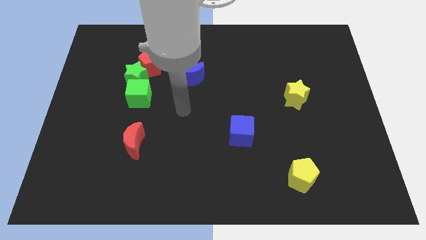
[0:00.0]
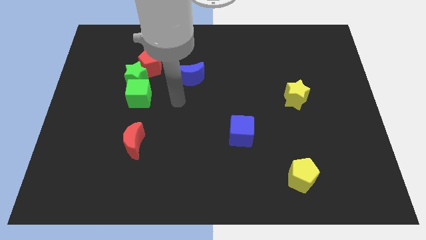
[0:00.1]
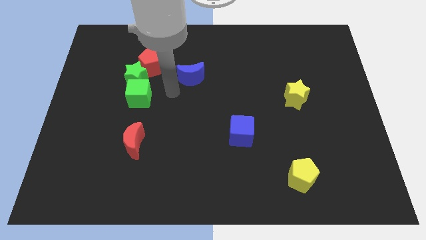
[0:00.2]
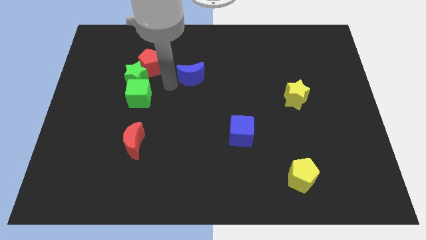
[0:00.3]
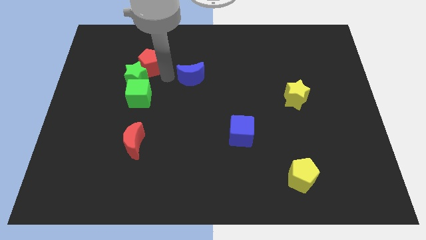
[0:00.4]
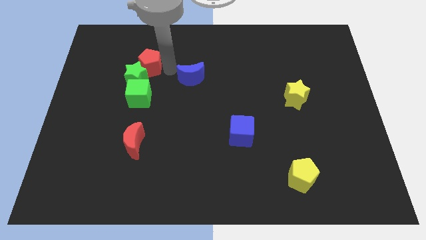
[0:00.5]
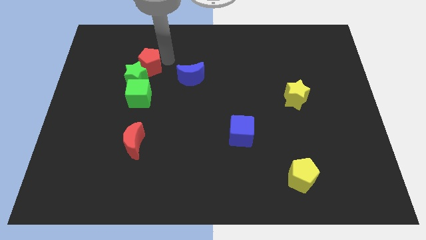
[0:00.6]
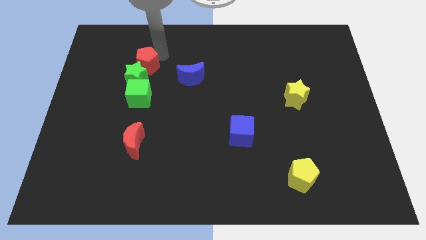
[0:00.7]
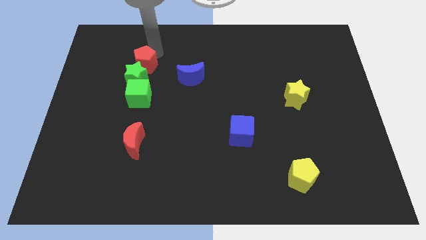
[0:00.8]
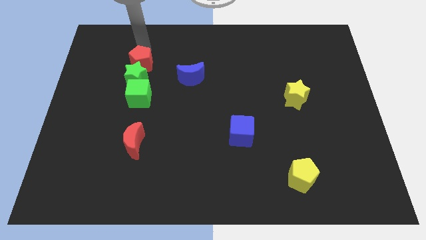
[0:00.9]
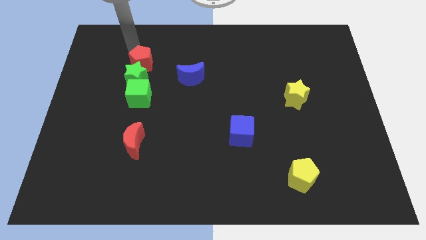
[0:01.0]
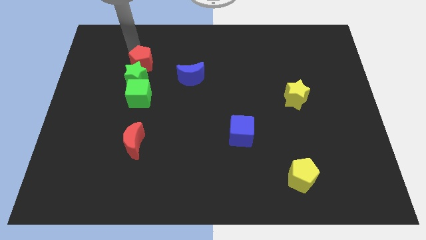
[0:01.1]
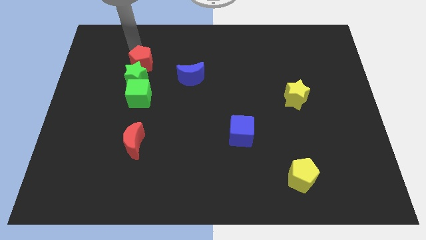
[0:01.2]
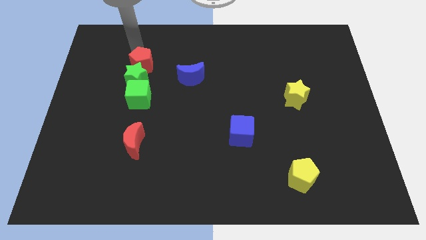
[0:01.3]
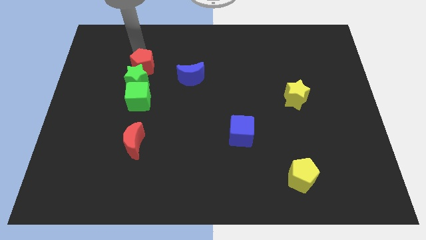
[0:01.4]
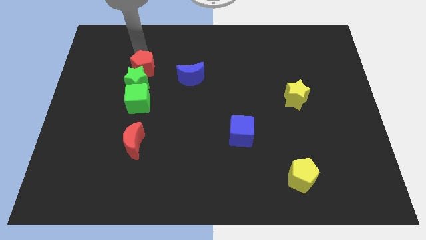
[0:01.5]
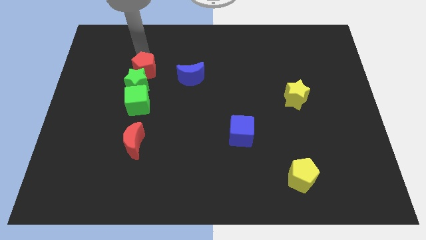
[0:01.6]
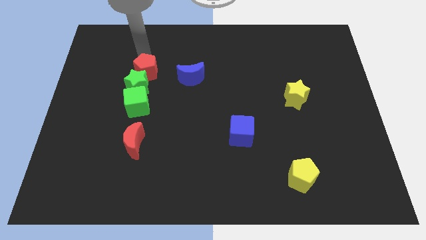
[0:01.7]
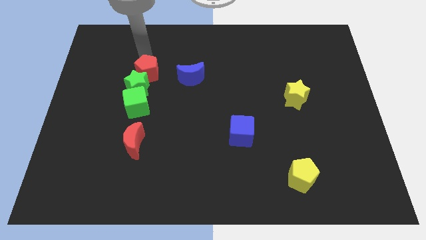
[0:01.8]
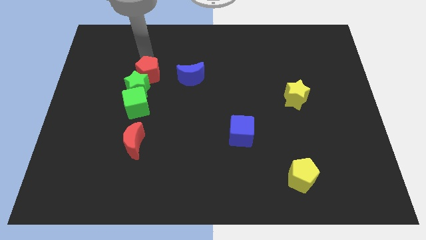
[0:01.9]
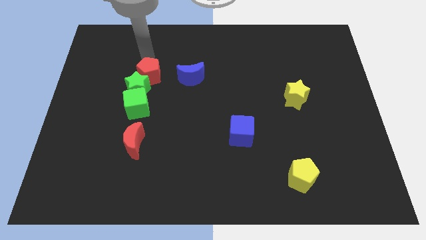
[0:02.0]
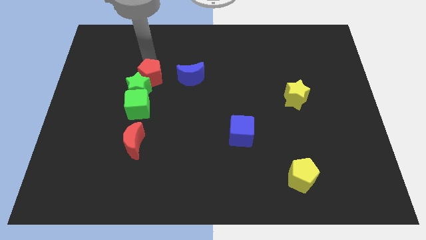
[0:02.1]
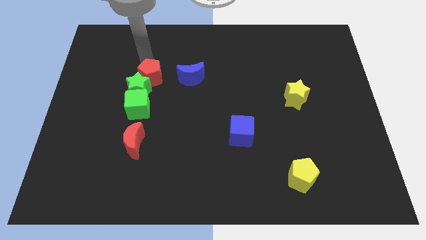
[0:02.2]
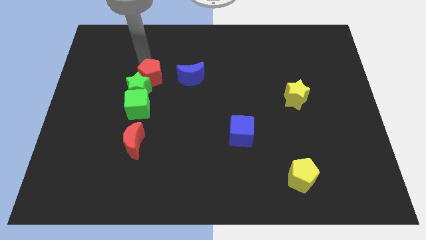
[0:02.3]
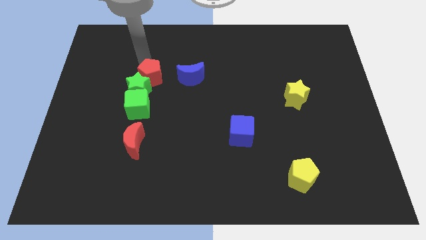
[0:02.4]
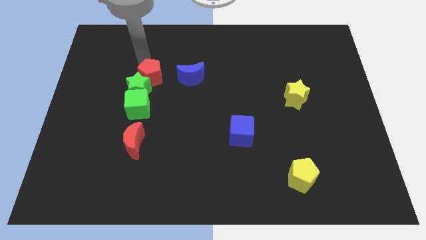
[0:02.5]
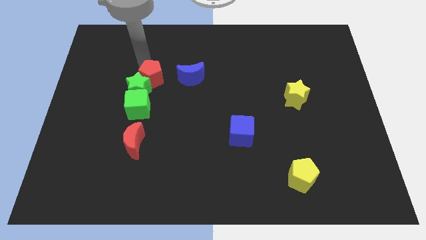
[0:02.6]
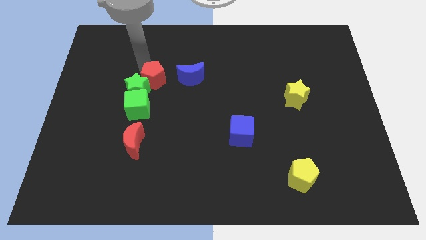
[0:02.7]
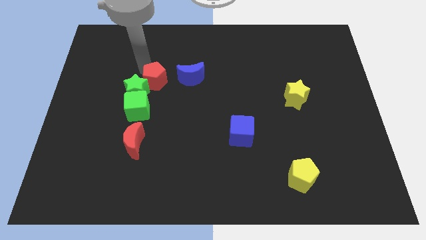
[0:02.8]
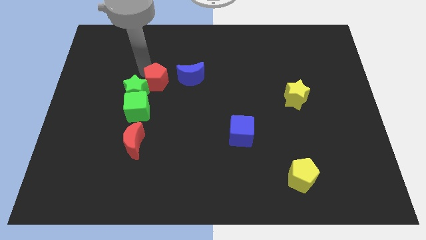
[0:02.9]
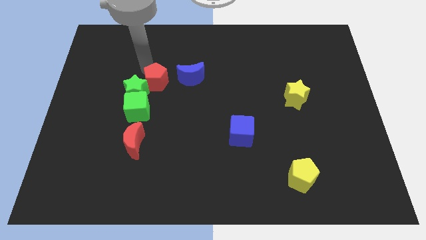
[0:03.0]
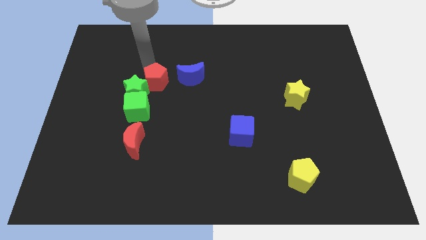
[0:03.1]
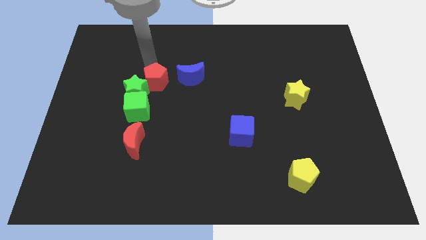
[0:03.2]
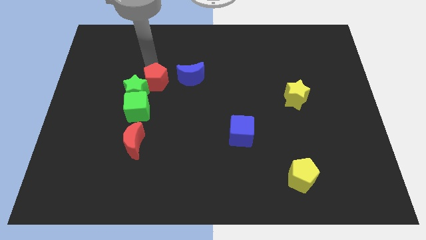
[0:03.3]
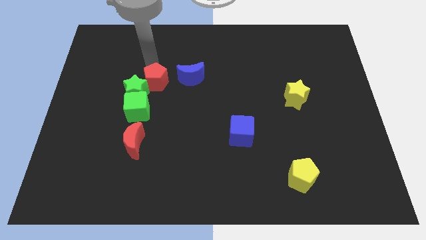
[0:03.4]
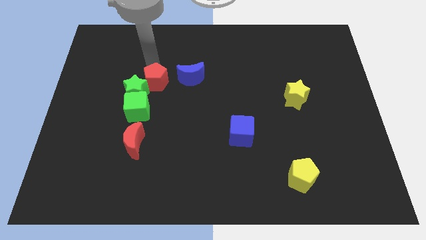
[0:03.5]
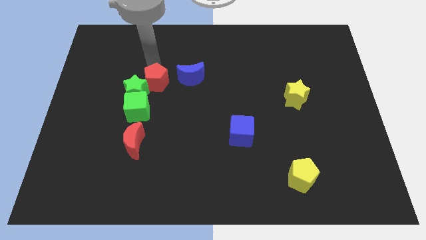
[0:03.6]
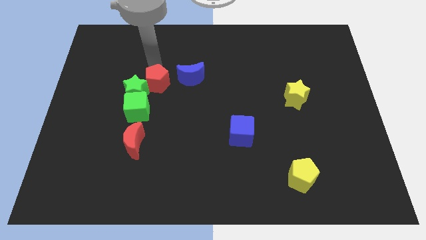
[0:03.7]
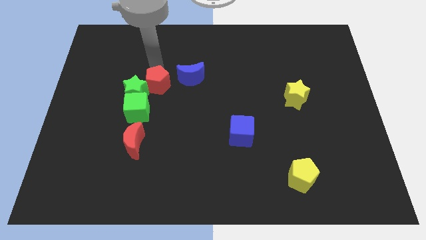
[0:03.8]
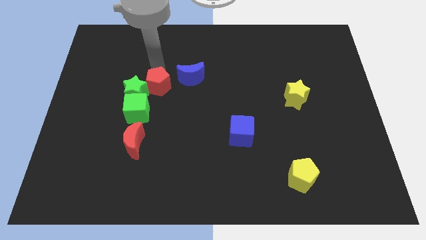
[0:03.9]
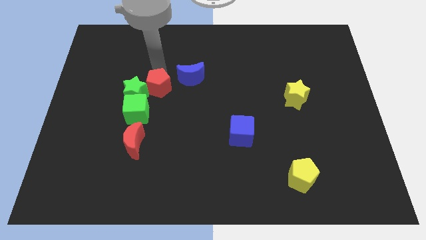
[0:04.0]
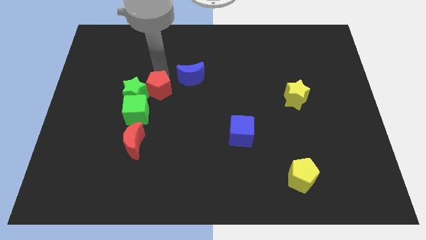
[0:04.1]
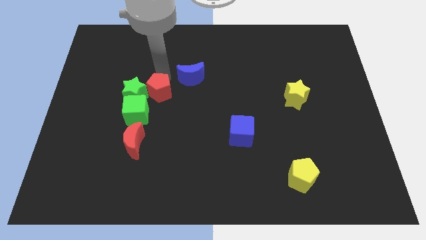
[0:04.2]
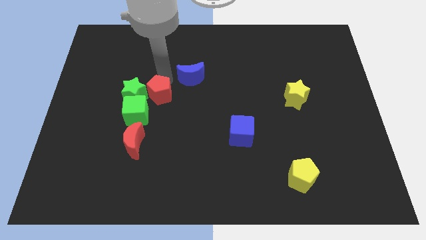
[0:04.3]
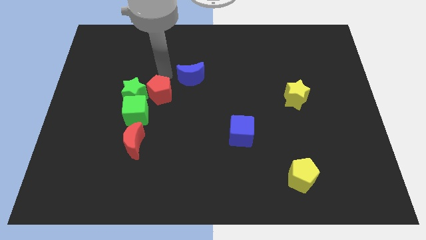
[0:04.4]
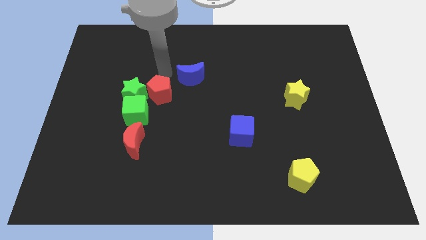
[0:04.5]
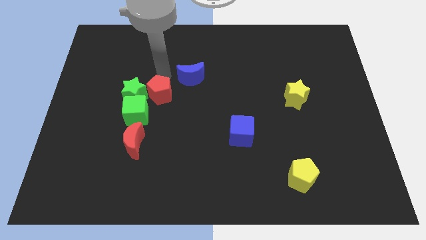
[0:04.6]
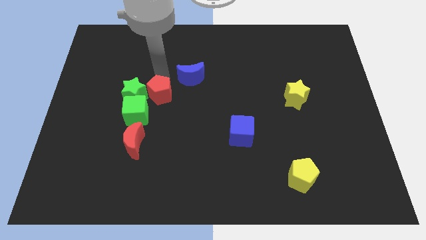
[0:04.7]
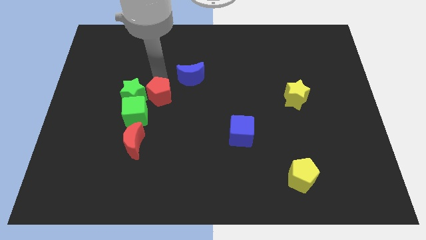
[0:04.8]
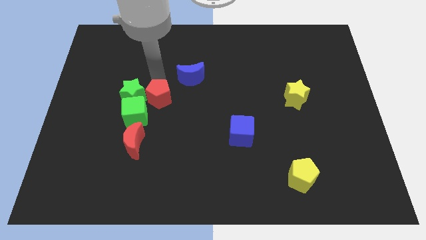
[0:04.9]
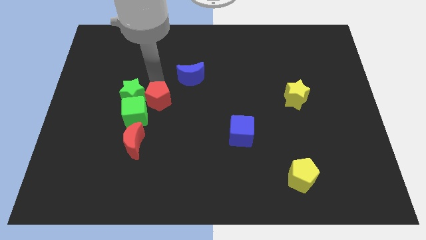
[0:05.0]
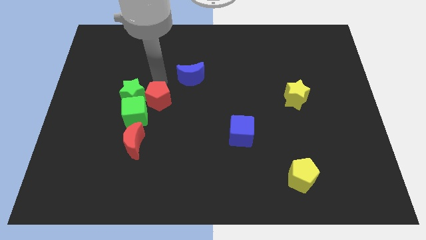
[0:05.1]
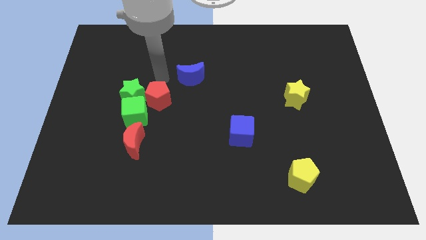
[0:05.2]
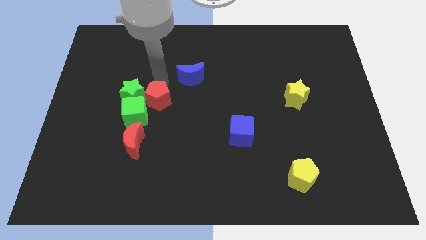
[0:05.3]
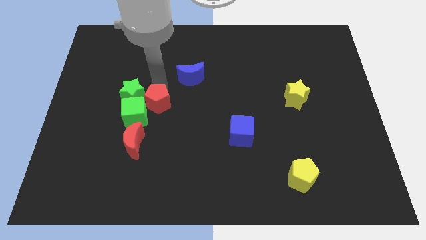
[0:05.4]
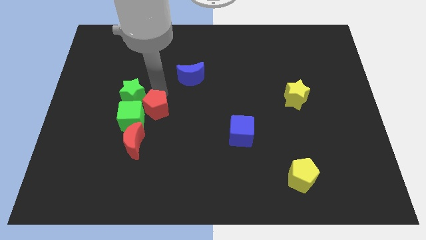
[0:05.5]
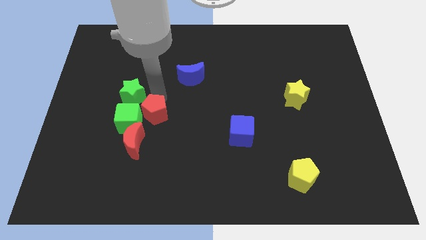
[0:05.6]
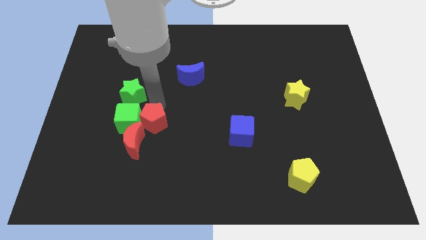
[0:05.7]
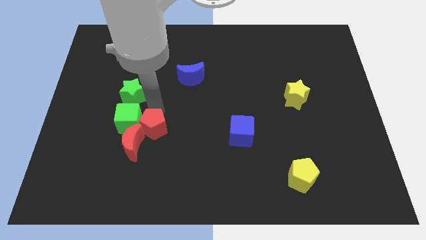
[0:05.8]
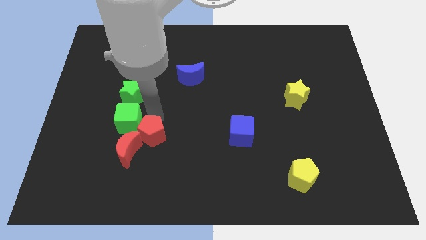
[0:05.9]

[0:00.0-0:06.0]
push the red pentagon downwards

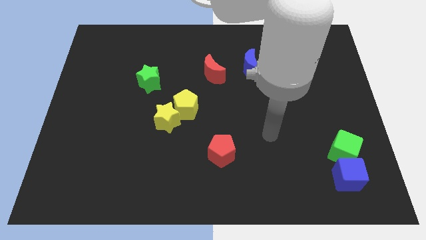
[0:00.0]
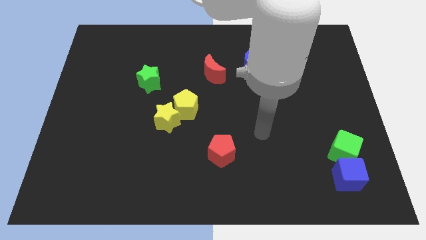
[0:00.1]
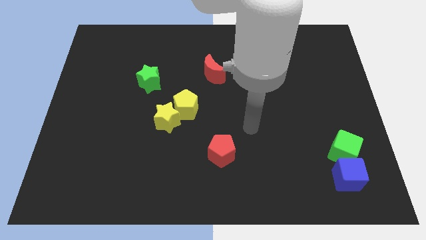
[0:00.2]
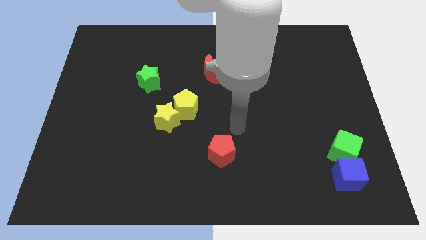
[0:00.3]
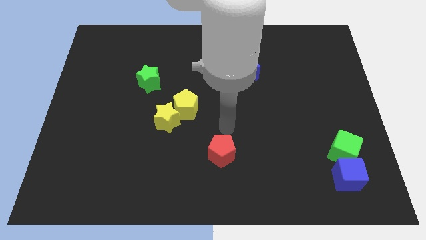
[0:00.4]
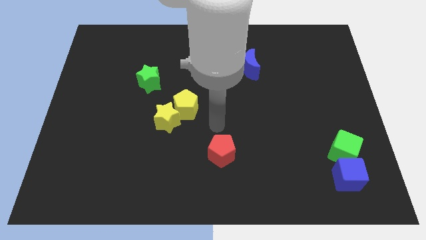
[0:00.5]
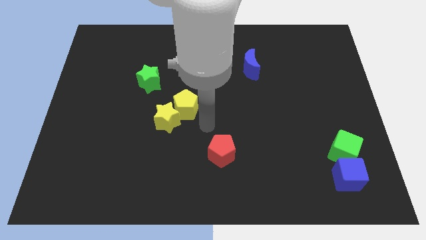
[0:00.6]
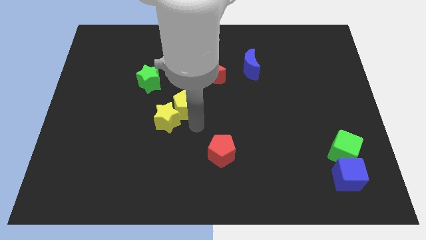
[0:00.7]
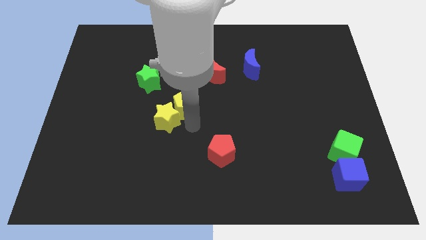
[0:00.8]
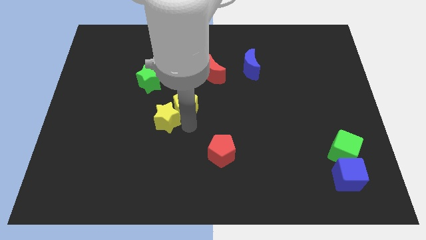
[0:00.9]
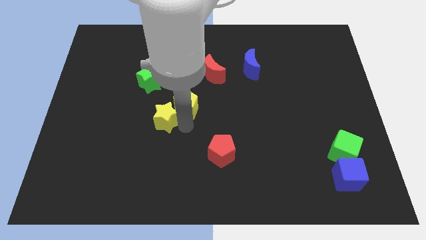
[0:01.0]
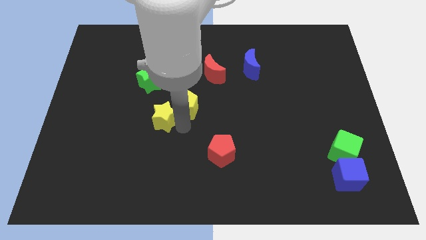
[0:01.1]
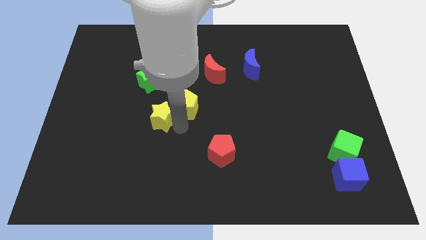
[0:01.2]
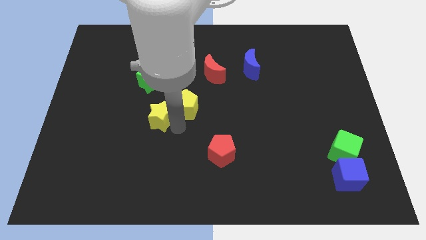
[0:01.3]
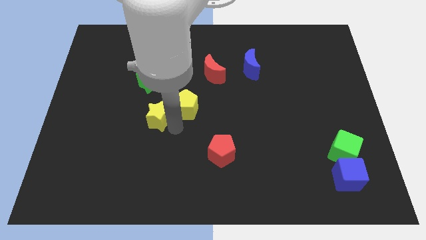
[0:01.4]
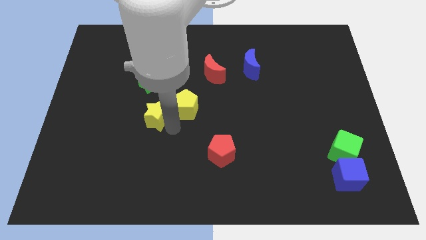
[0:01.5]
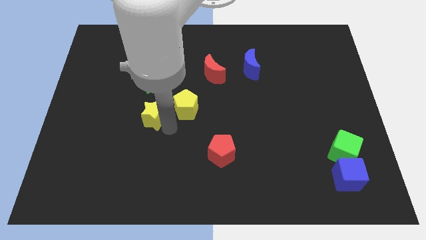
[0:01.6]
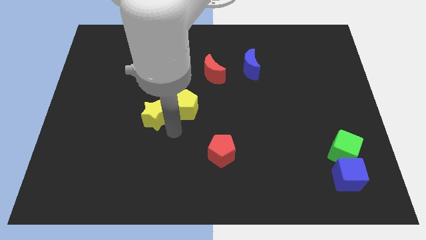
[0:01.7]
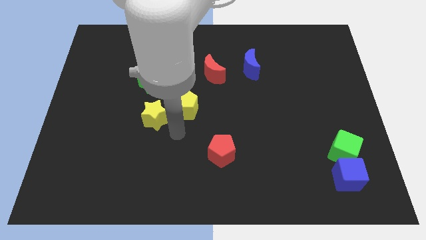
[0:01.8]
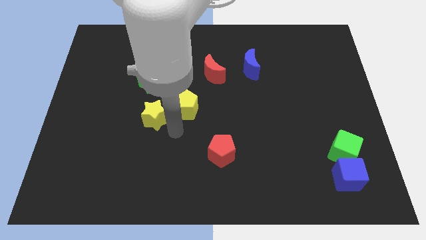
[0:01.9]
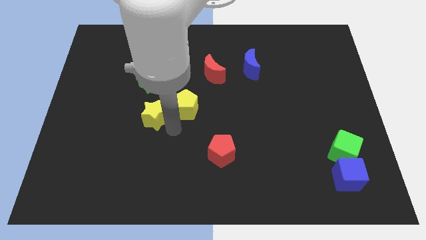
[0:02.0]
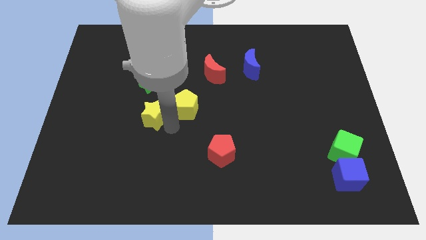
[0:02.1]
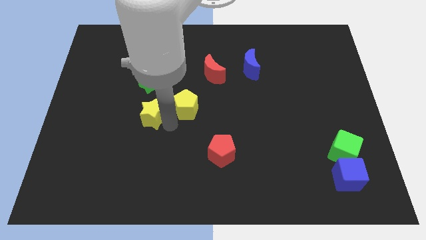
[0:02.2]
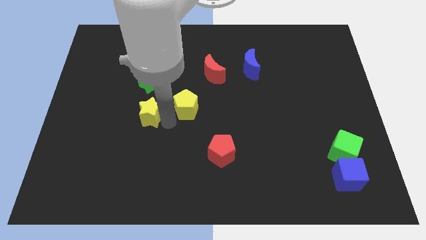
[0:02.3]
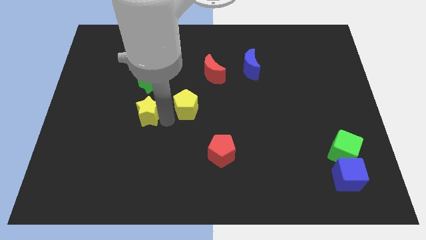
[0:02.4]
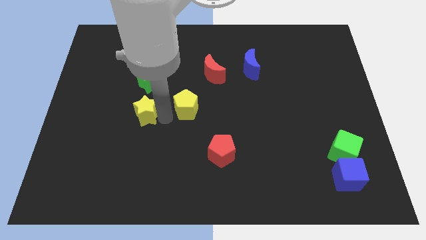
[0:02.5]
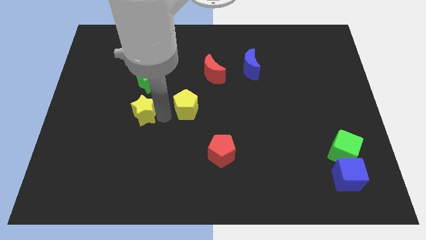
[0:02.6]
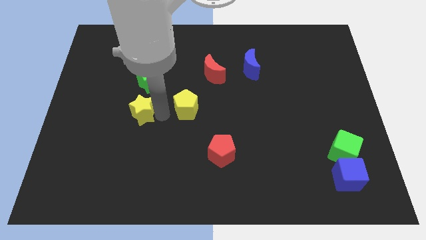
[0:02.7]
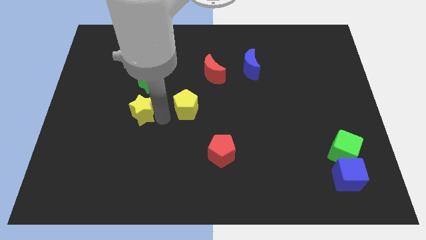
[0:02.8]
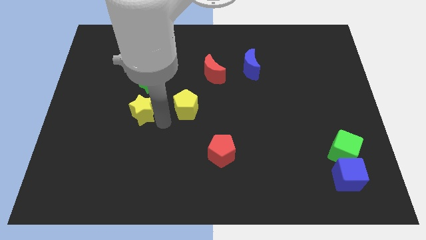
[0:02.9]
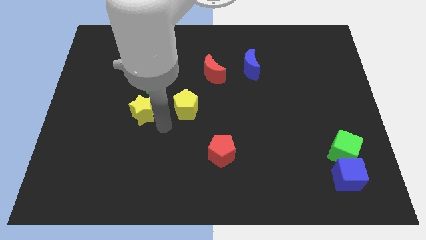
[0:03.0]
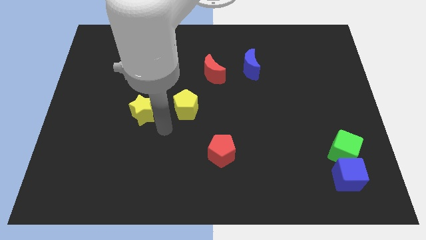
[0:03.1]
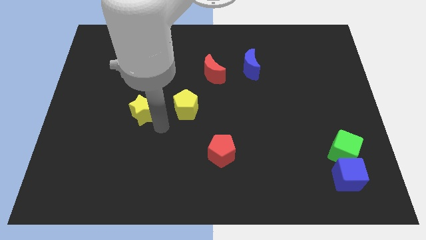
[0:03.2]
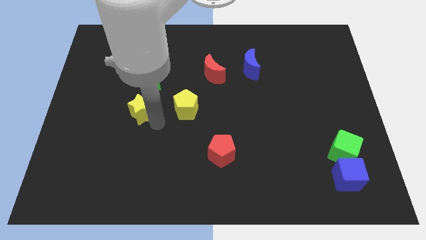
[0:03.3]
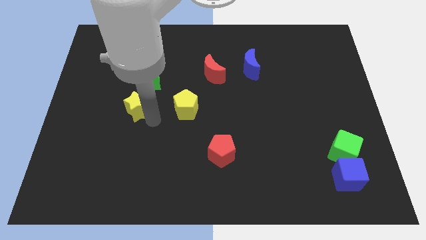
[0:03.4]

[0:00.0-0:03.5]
slightly push the yellow star diagonally up and left
